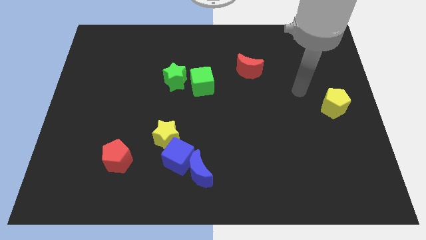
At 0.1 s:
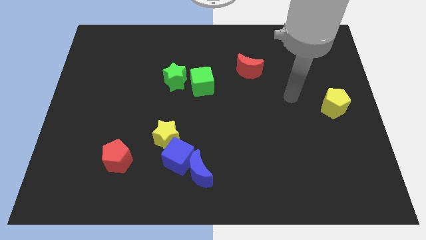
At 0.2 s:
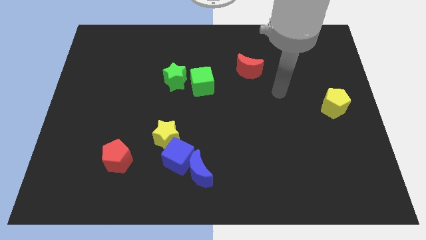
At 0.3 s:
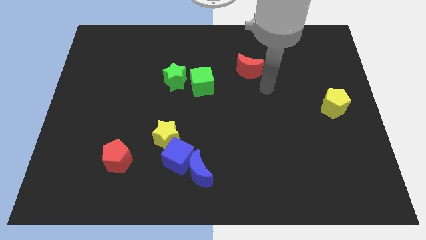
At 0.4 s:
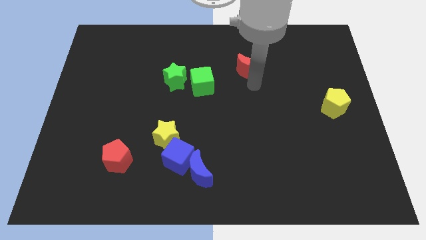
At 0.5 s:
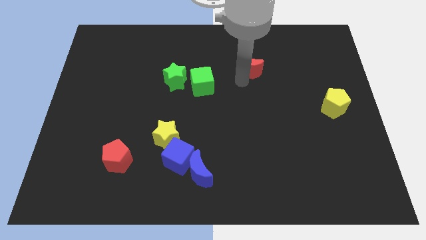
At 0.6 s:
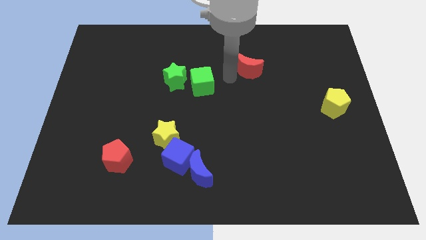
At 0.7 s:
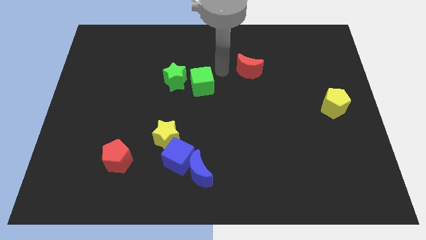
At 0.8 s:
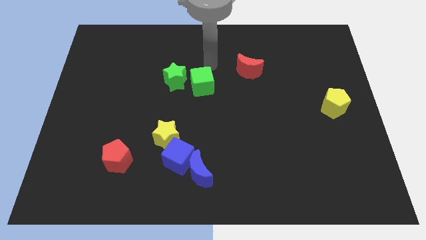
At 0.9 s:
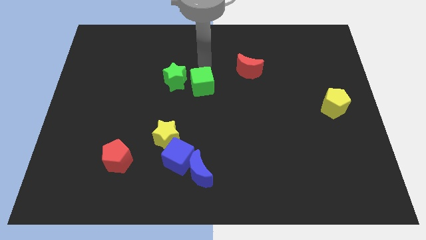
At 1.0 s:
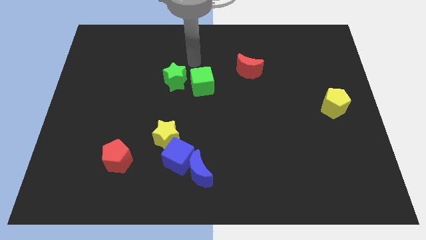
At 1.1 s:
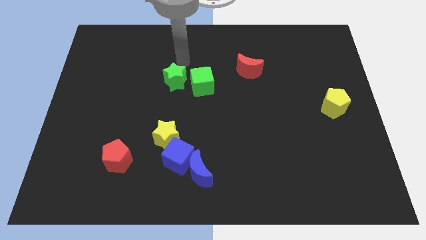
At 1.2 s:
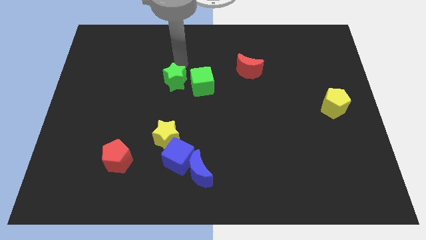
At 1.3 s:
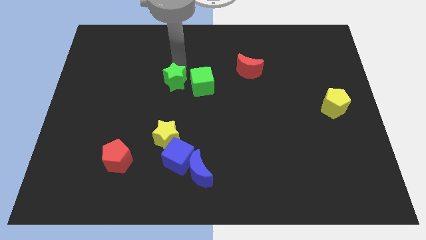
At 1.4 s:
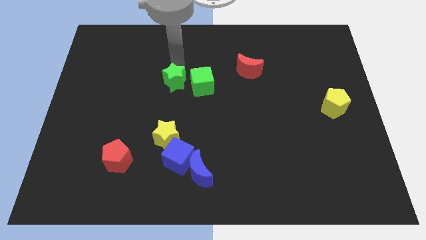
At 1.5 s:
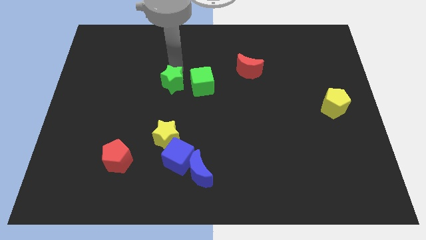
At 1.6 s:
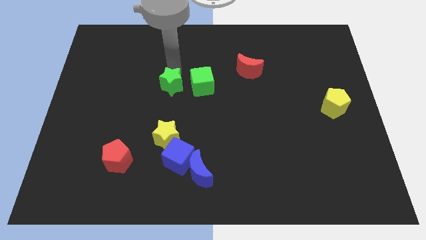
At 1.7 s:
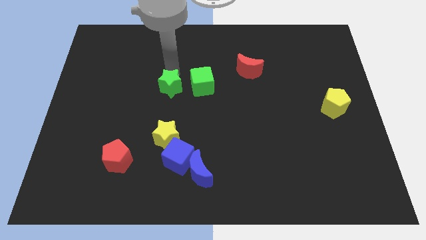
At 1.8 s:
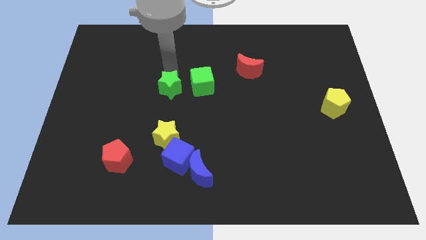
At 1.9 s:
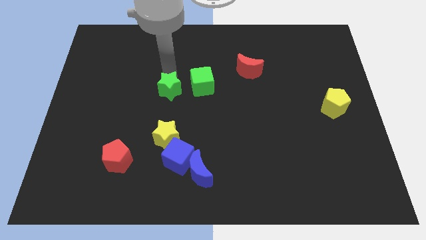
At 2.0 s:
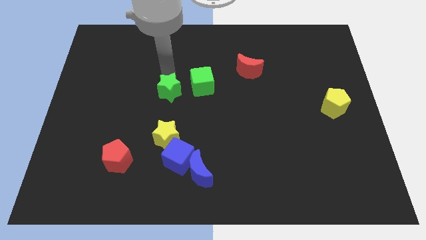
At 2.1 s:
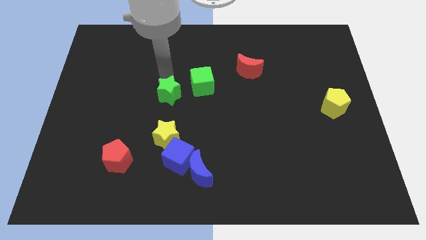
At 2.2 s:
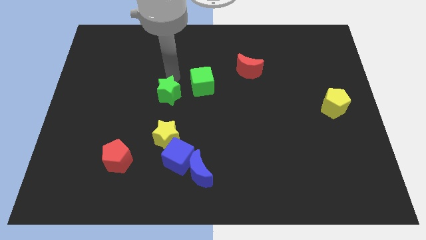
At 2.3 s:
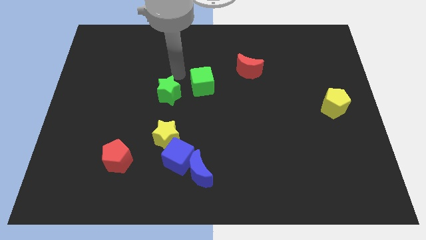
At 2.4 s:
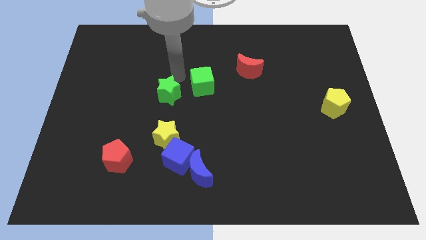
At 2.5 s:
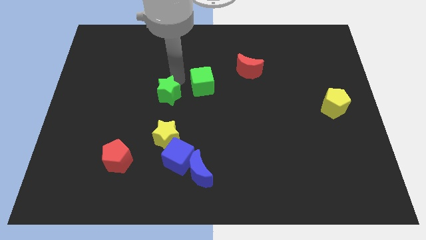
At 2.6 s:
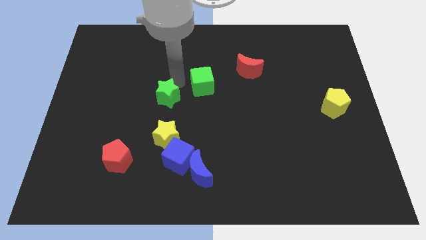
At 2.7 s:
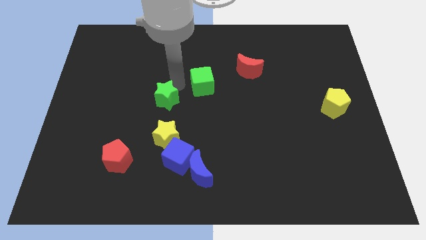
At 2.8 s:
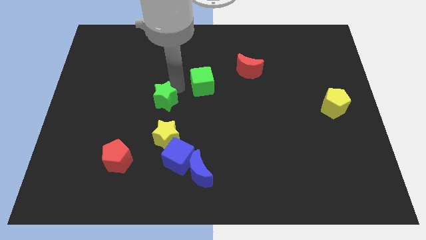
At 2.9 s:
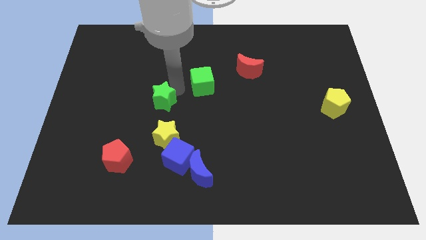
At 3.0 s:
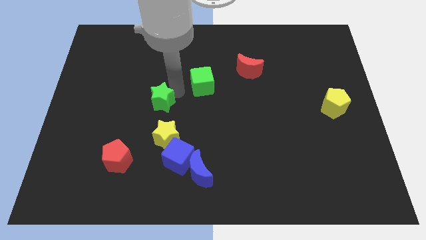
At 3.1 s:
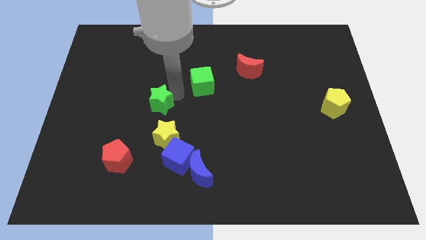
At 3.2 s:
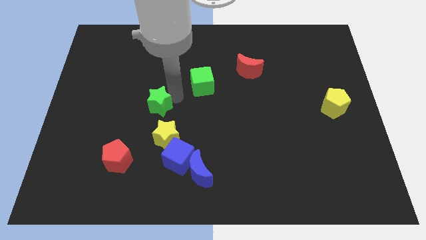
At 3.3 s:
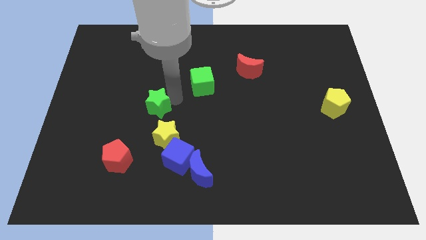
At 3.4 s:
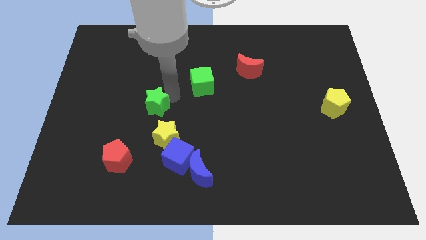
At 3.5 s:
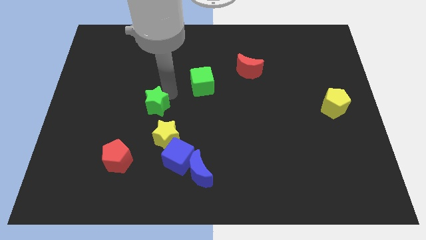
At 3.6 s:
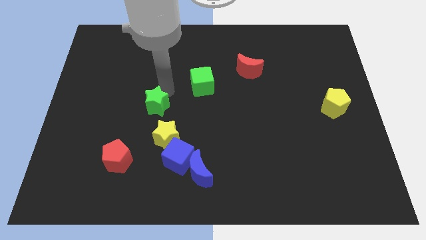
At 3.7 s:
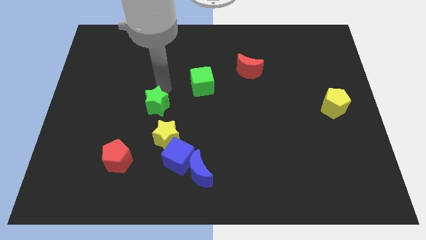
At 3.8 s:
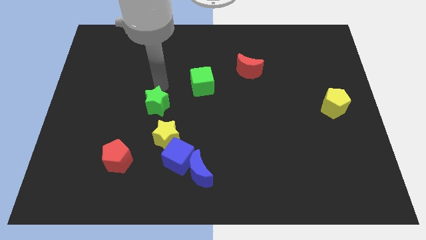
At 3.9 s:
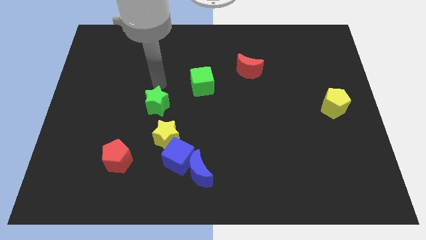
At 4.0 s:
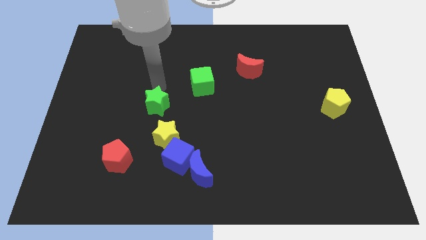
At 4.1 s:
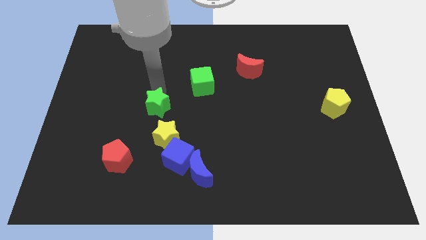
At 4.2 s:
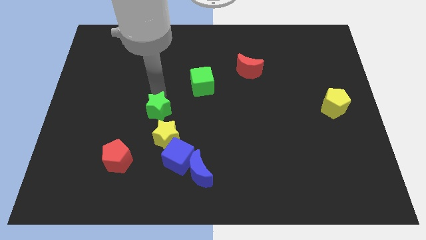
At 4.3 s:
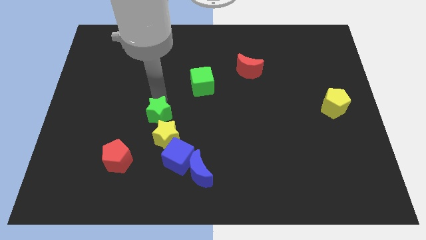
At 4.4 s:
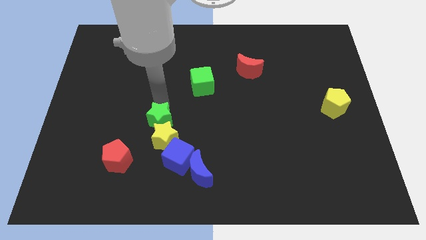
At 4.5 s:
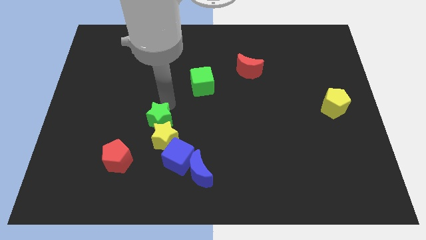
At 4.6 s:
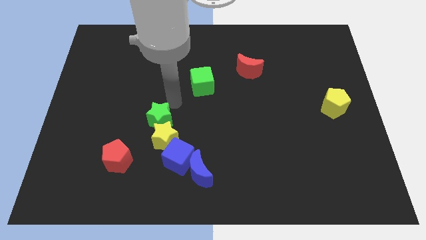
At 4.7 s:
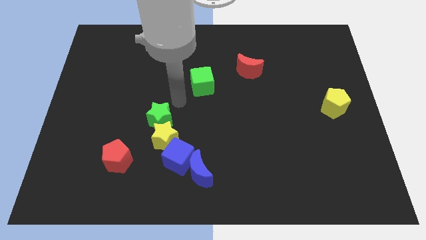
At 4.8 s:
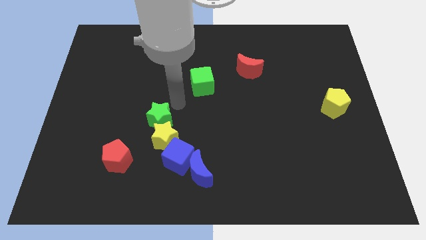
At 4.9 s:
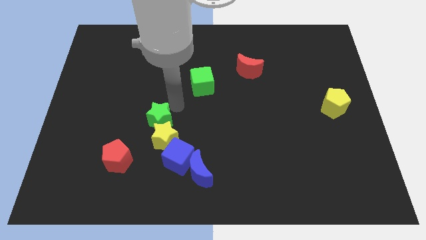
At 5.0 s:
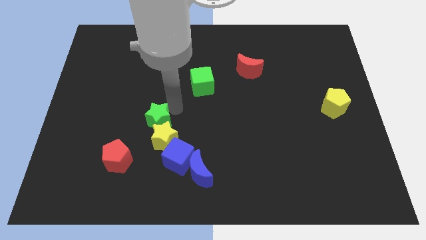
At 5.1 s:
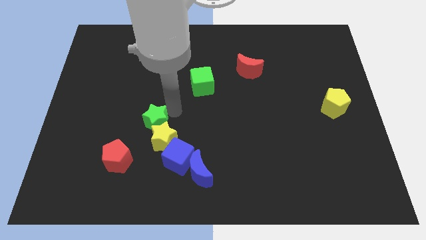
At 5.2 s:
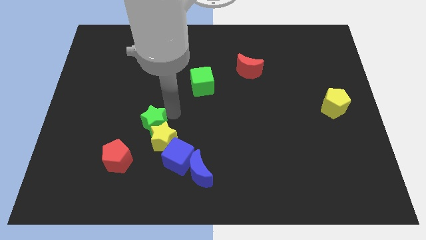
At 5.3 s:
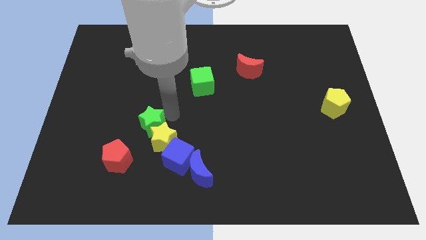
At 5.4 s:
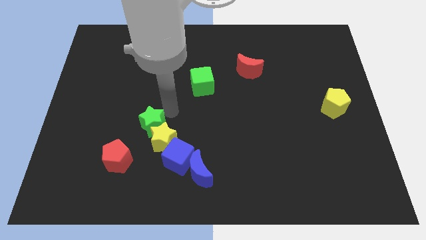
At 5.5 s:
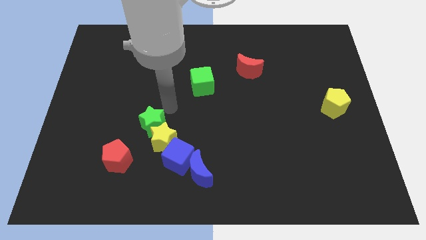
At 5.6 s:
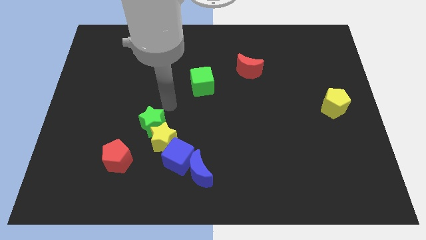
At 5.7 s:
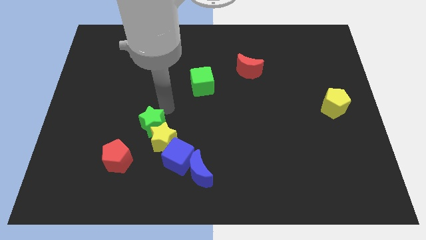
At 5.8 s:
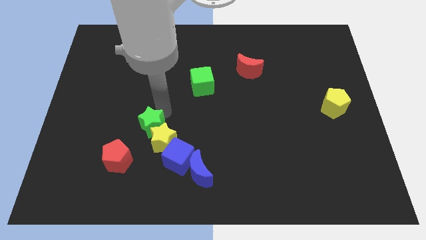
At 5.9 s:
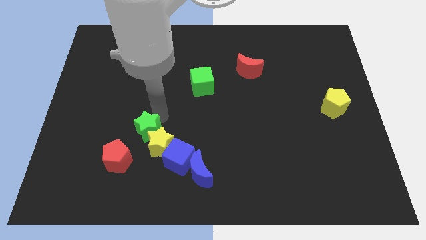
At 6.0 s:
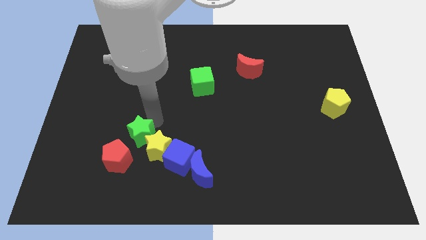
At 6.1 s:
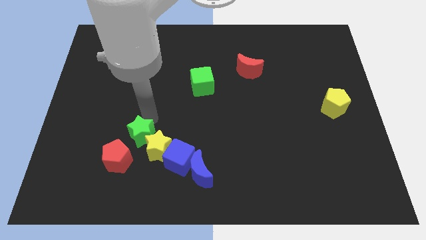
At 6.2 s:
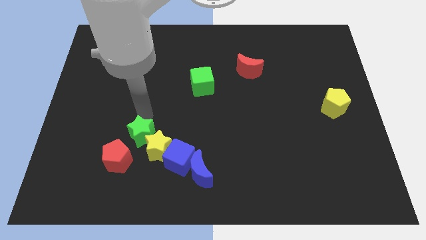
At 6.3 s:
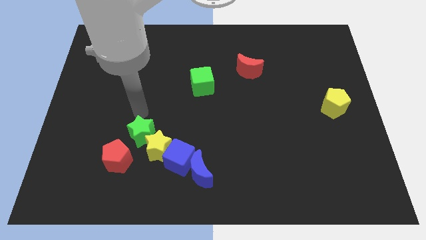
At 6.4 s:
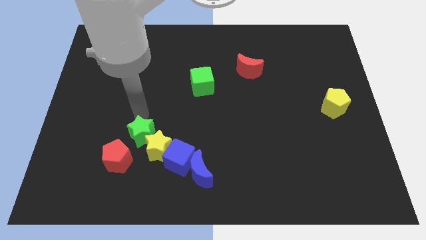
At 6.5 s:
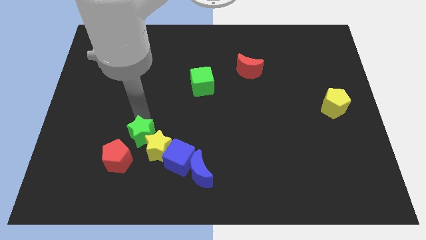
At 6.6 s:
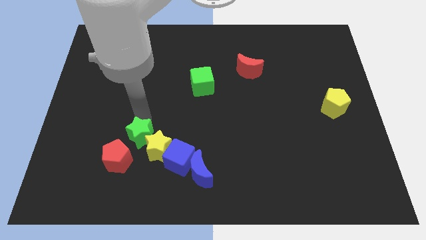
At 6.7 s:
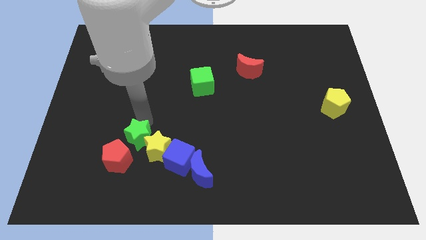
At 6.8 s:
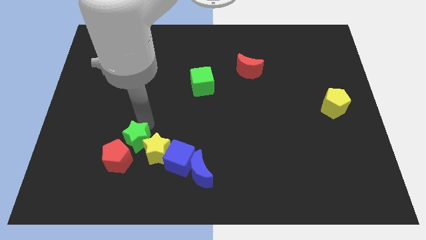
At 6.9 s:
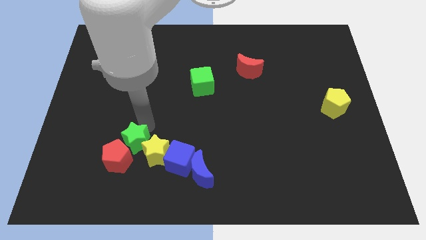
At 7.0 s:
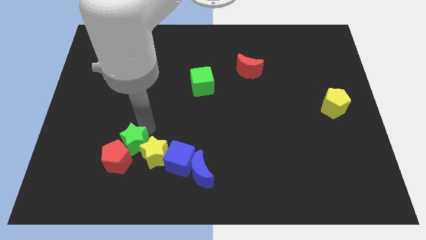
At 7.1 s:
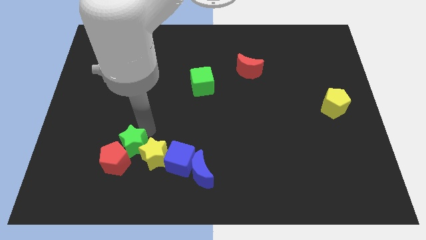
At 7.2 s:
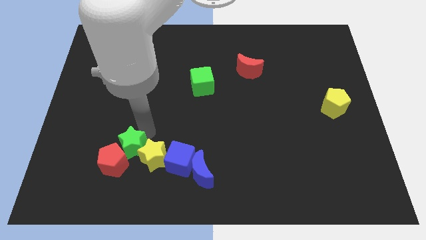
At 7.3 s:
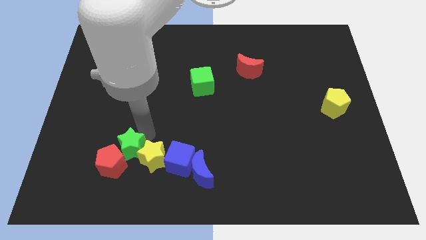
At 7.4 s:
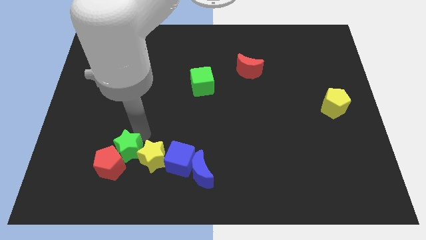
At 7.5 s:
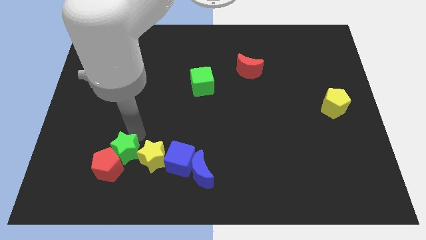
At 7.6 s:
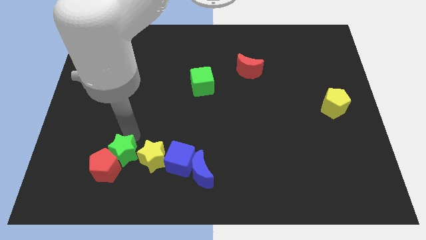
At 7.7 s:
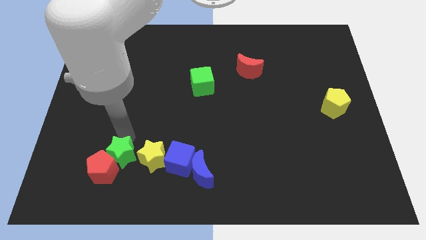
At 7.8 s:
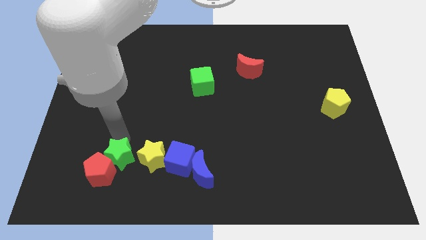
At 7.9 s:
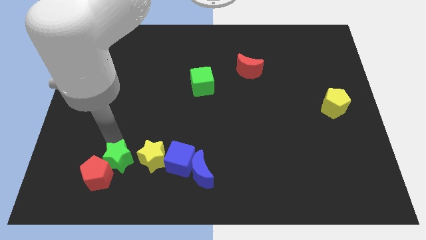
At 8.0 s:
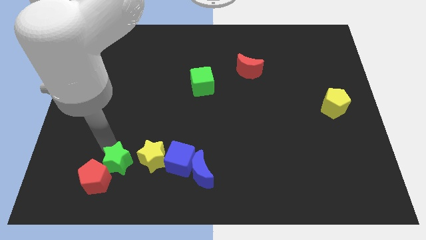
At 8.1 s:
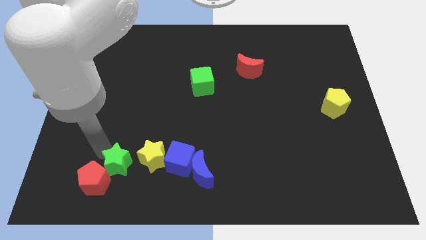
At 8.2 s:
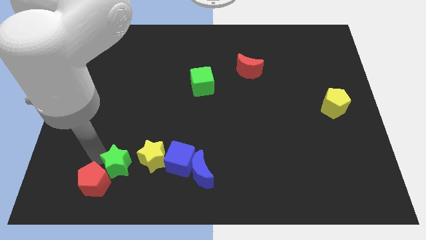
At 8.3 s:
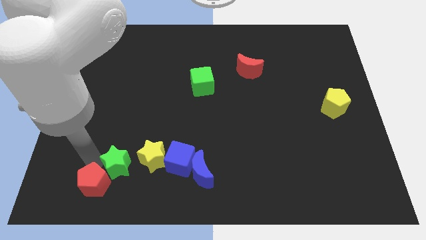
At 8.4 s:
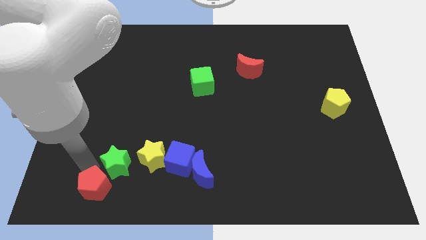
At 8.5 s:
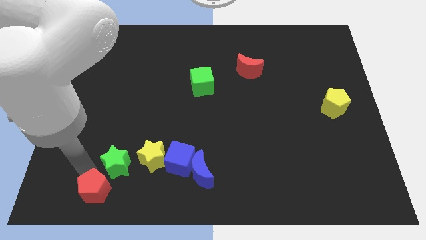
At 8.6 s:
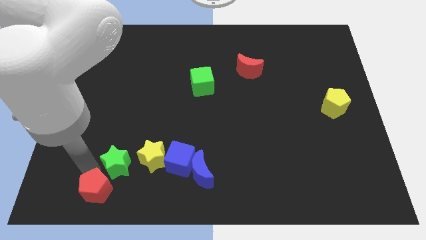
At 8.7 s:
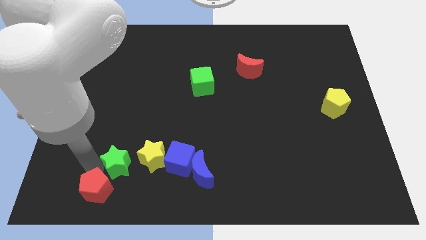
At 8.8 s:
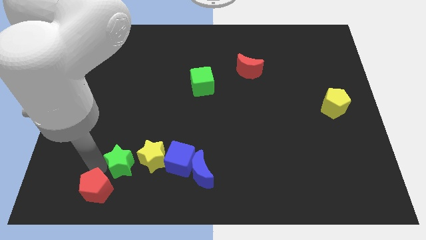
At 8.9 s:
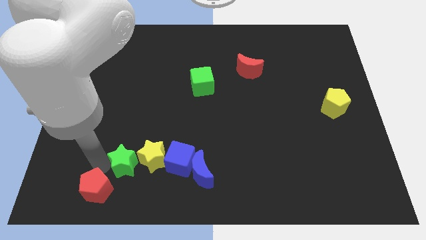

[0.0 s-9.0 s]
slide the green star left of the blue moon
